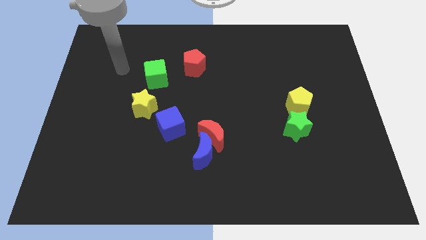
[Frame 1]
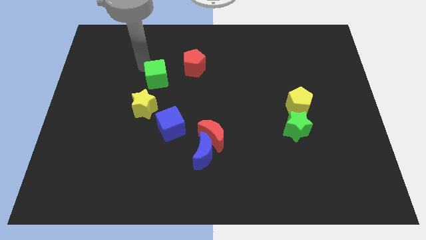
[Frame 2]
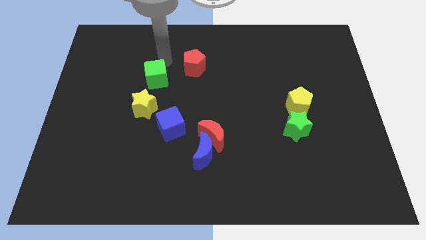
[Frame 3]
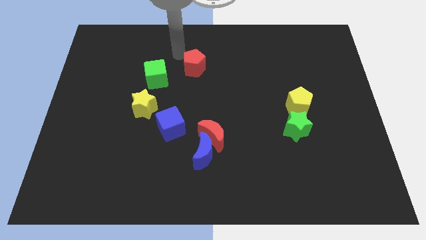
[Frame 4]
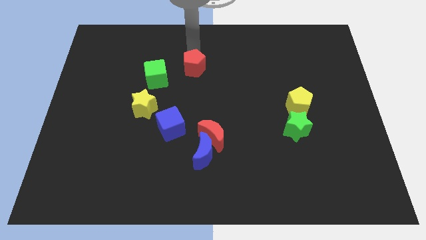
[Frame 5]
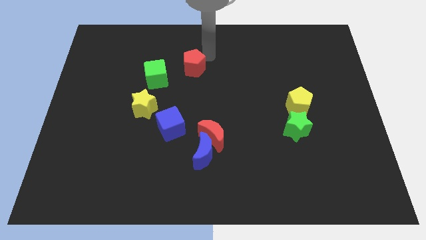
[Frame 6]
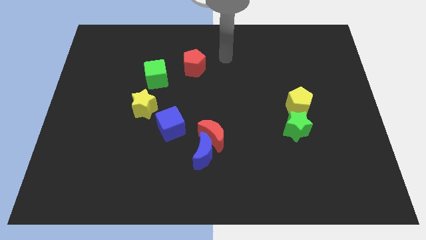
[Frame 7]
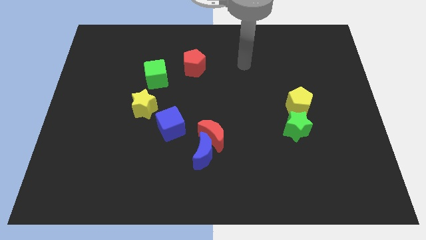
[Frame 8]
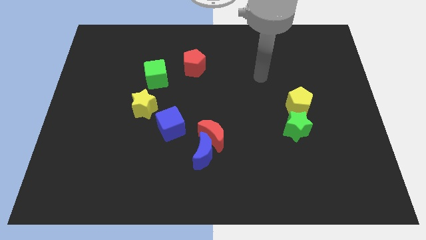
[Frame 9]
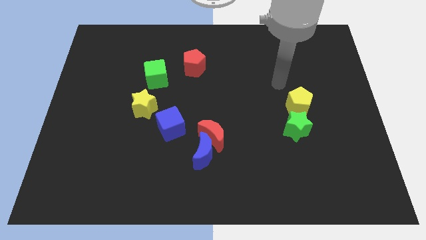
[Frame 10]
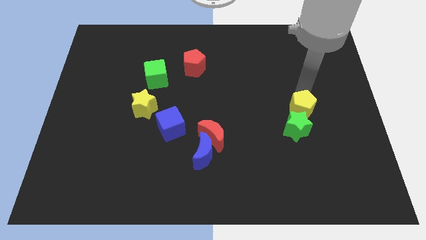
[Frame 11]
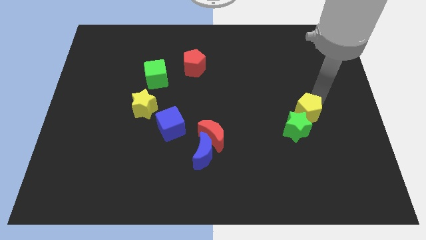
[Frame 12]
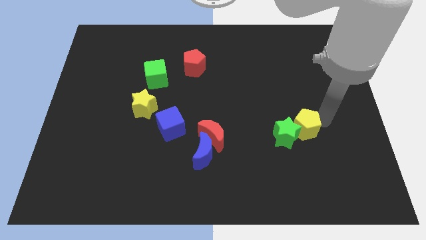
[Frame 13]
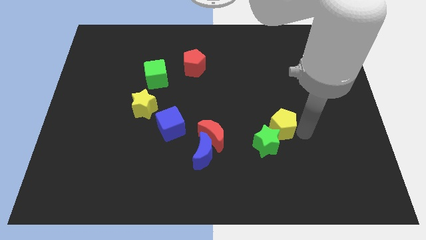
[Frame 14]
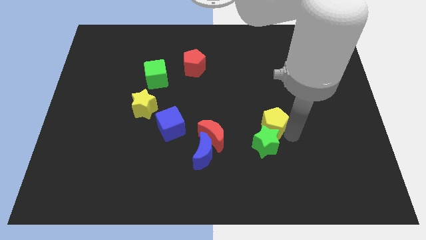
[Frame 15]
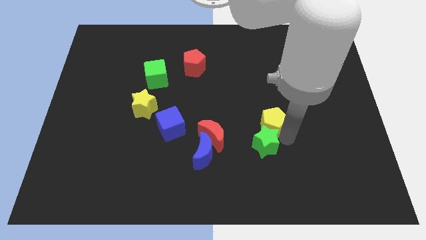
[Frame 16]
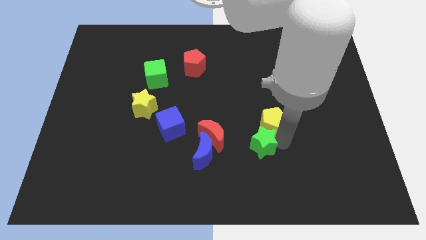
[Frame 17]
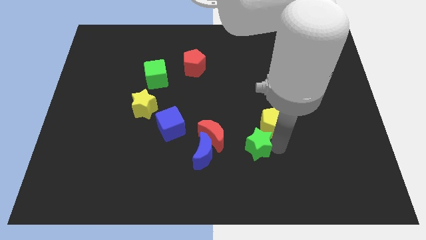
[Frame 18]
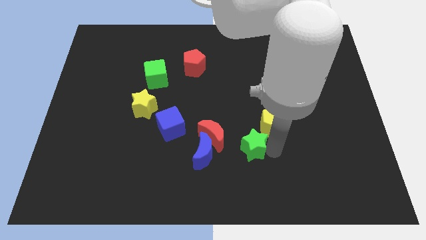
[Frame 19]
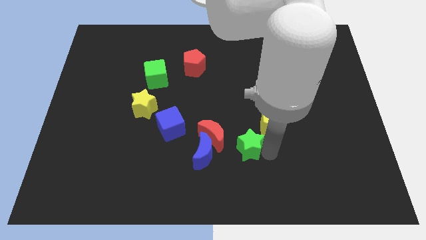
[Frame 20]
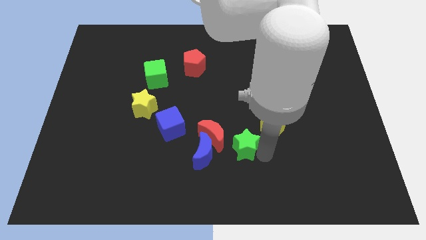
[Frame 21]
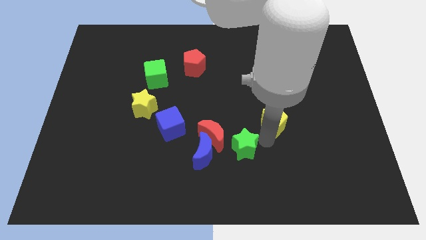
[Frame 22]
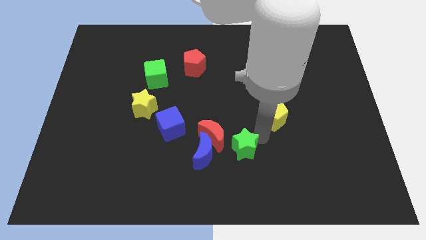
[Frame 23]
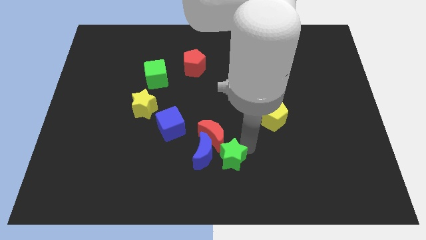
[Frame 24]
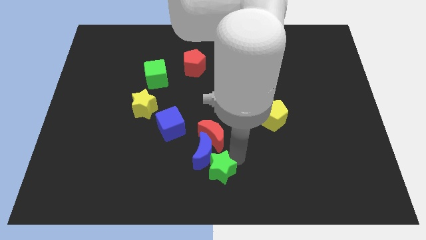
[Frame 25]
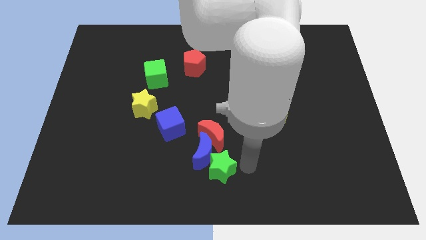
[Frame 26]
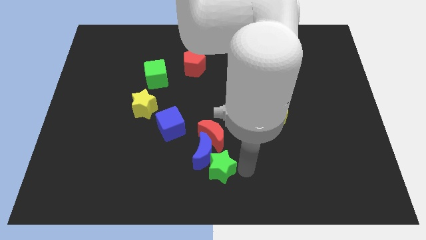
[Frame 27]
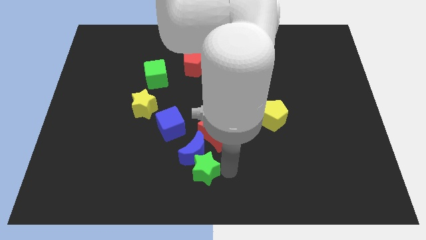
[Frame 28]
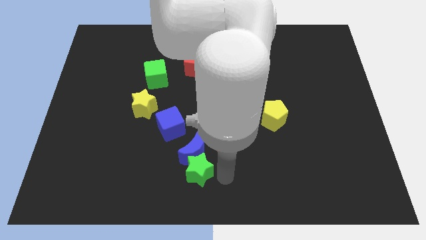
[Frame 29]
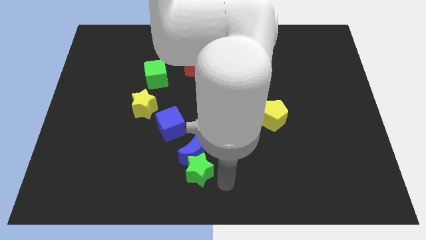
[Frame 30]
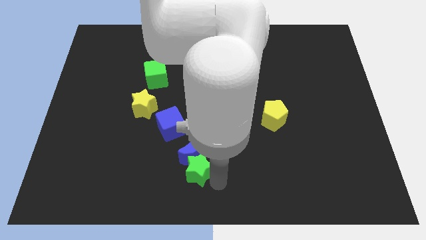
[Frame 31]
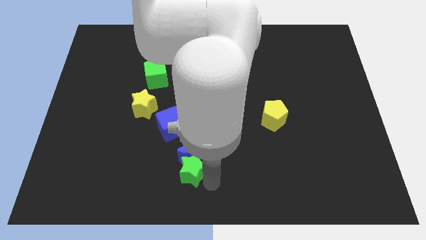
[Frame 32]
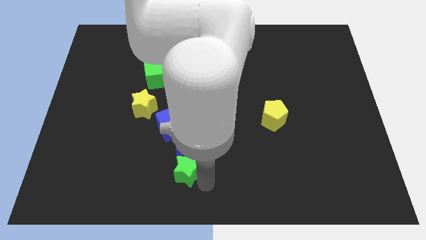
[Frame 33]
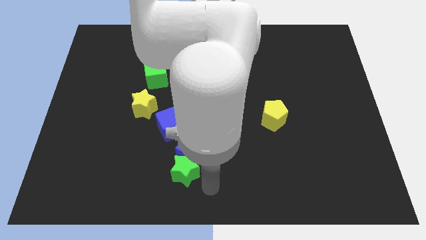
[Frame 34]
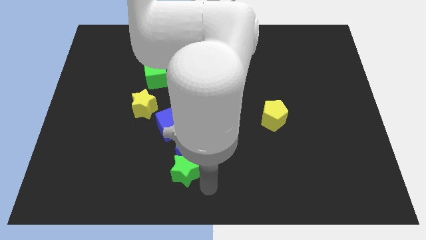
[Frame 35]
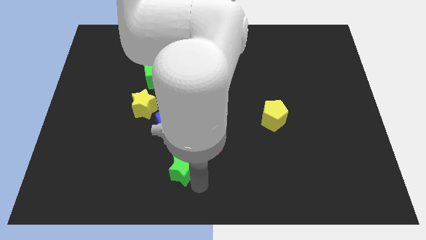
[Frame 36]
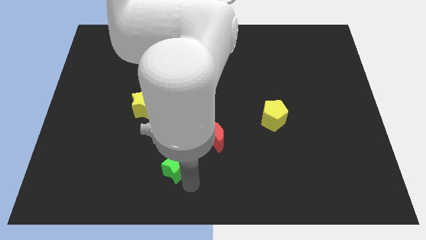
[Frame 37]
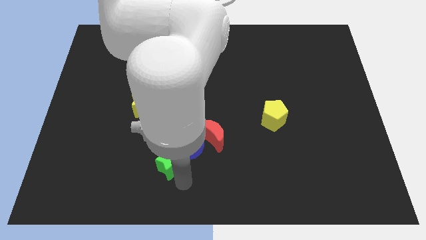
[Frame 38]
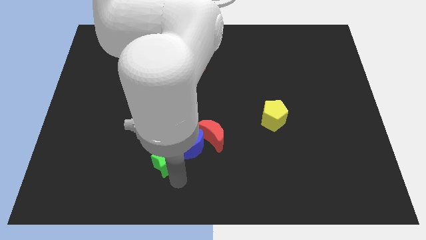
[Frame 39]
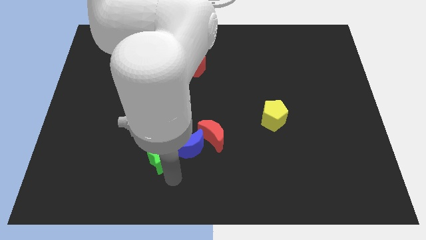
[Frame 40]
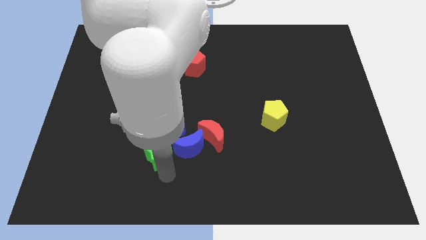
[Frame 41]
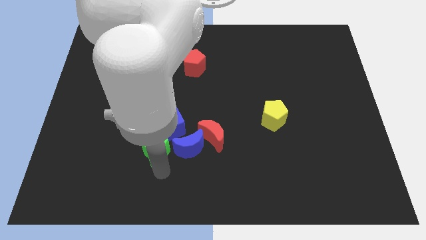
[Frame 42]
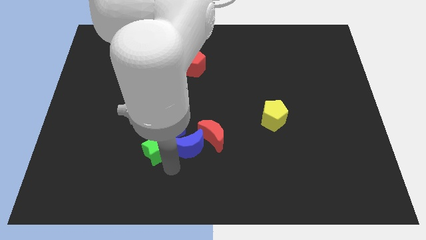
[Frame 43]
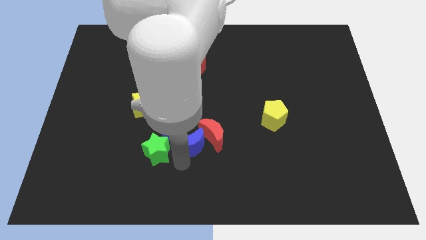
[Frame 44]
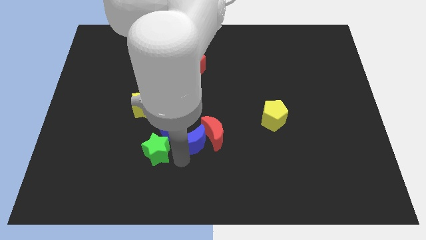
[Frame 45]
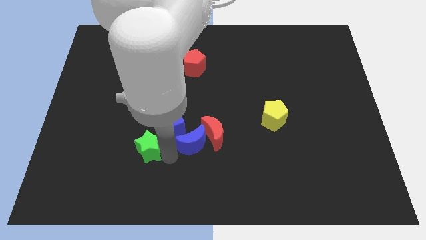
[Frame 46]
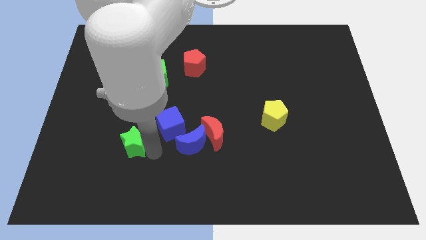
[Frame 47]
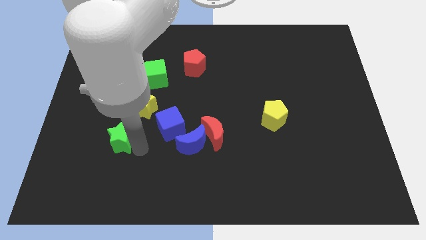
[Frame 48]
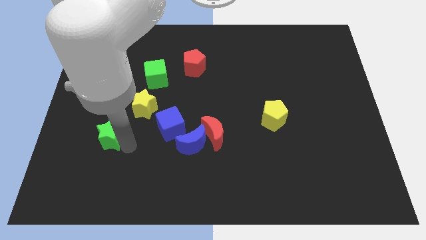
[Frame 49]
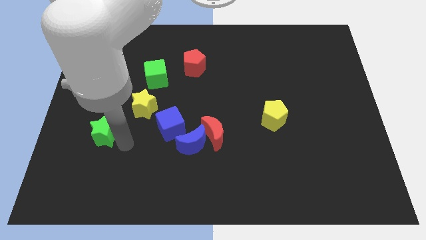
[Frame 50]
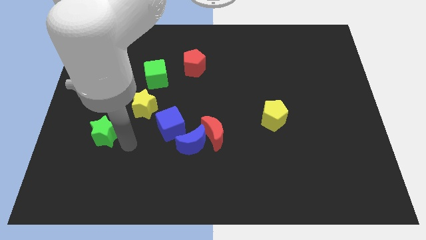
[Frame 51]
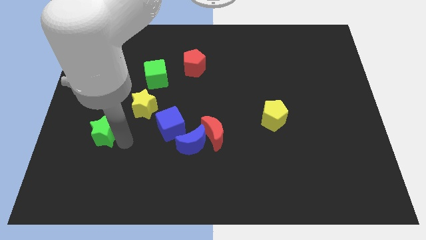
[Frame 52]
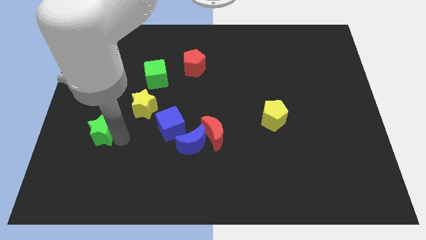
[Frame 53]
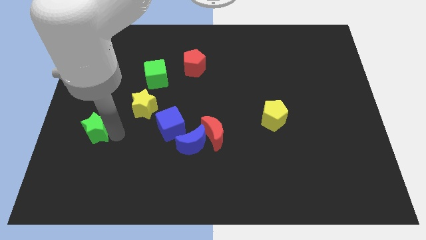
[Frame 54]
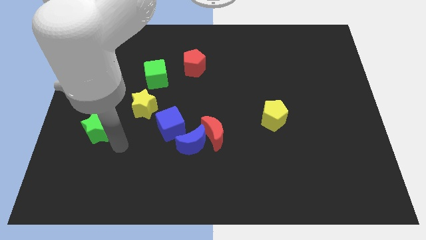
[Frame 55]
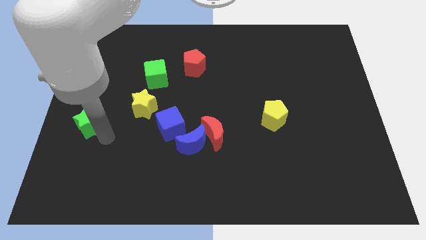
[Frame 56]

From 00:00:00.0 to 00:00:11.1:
move the green star to the center left

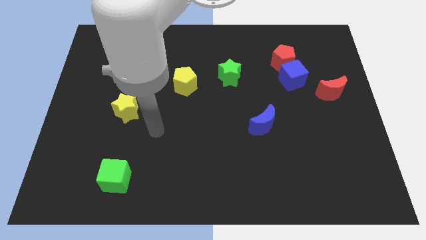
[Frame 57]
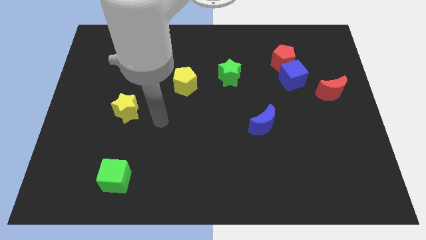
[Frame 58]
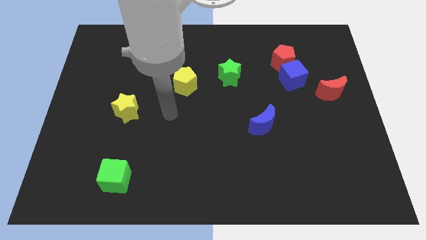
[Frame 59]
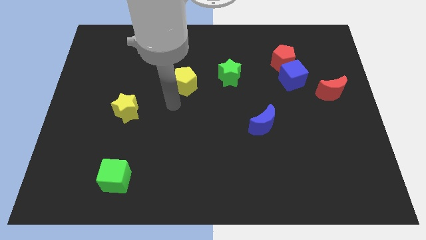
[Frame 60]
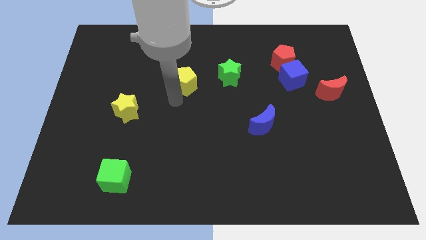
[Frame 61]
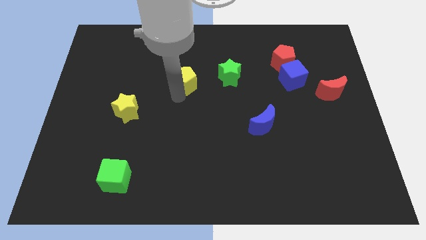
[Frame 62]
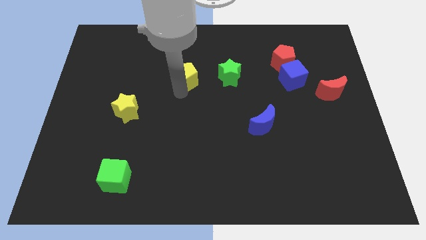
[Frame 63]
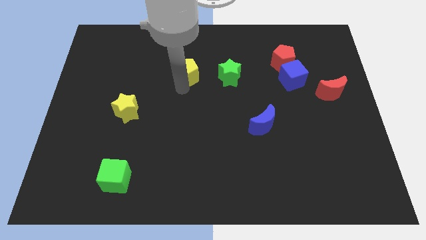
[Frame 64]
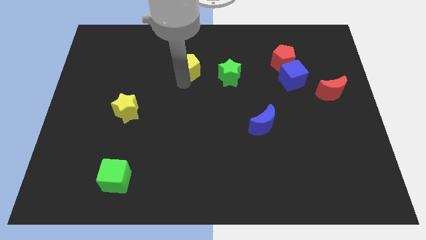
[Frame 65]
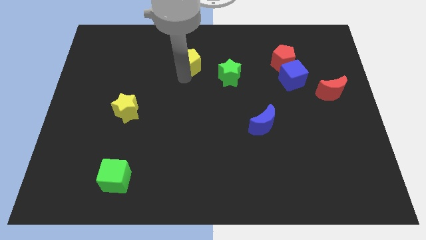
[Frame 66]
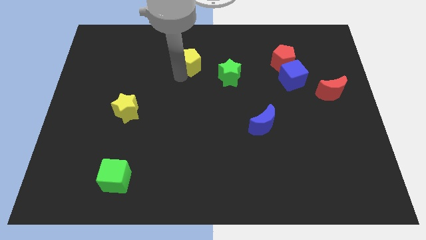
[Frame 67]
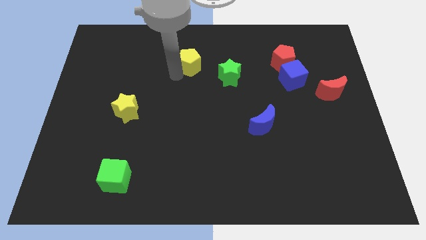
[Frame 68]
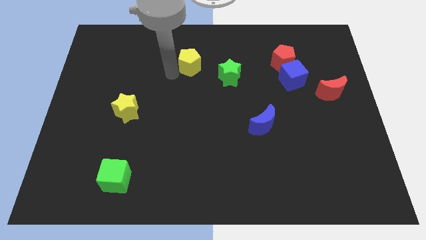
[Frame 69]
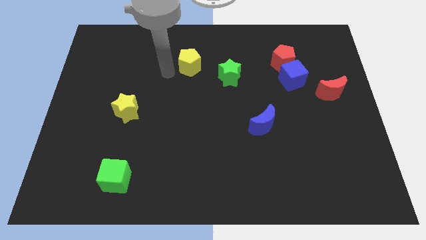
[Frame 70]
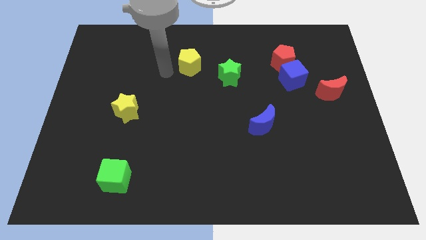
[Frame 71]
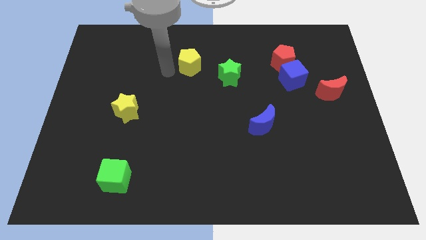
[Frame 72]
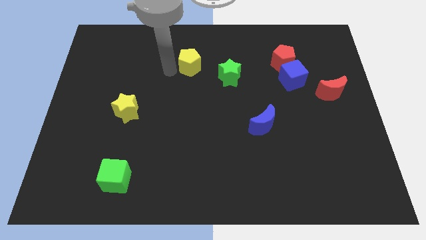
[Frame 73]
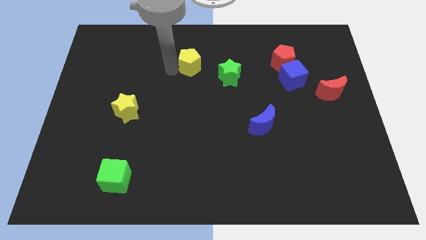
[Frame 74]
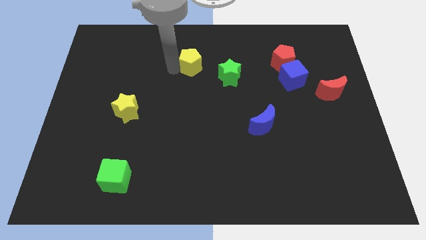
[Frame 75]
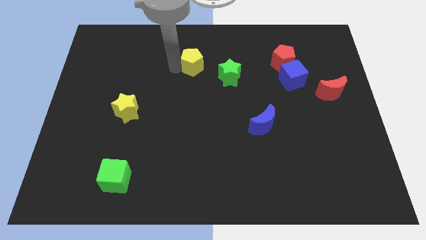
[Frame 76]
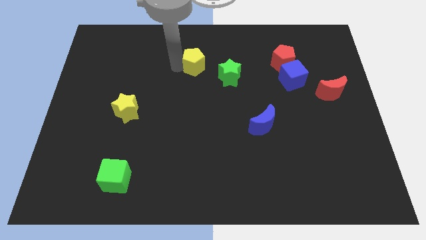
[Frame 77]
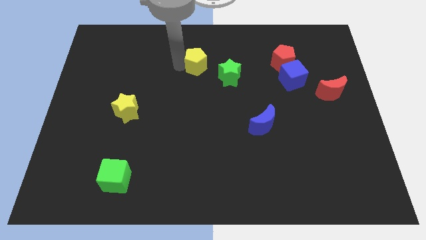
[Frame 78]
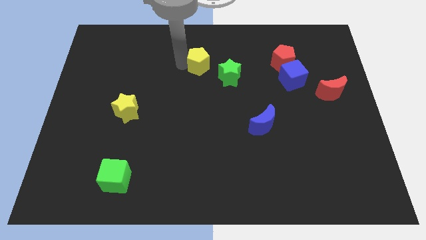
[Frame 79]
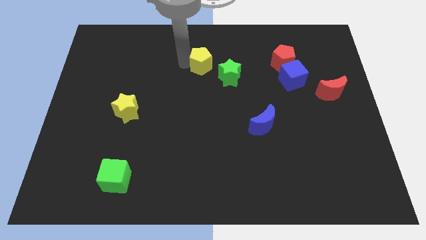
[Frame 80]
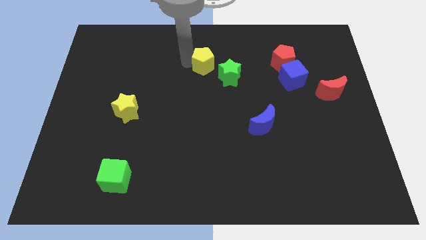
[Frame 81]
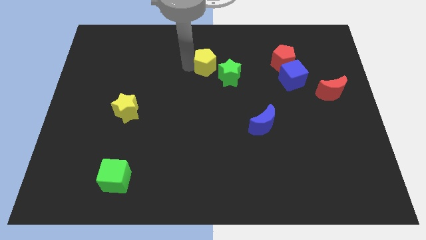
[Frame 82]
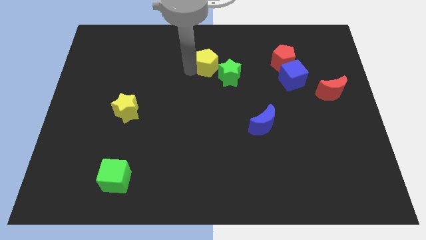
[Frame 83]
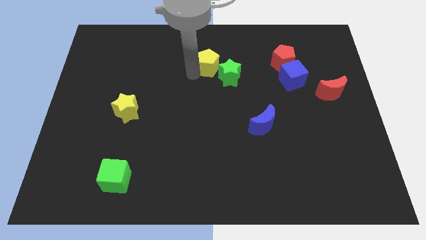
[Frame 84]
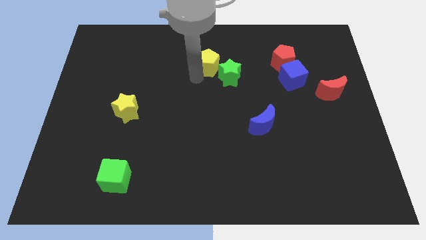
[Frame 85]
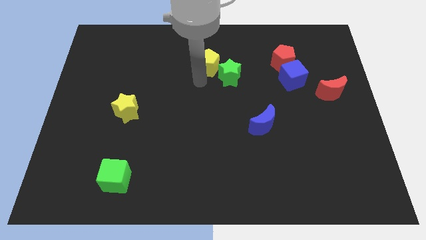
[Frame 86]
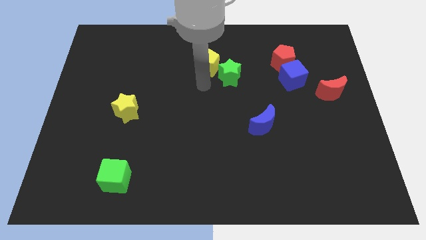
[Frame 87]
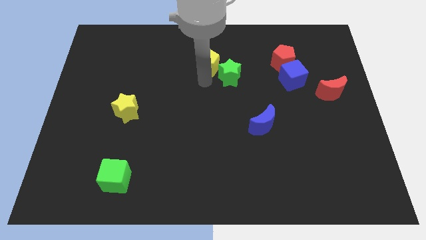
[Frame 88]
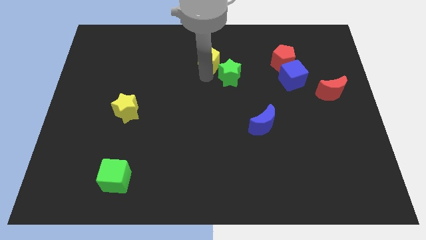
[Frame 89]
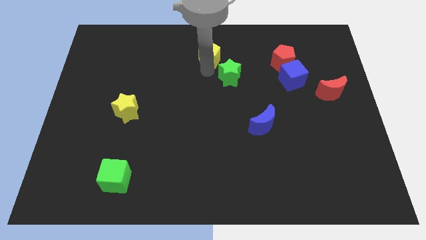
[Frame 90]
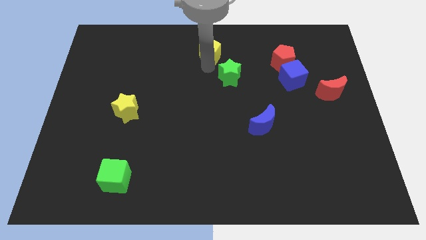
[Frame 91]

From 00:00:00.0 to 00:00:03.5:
put the yellow pentagon to the top
